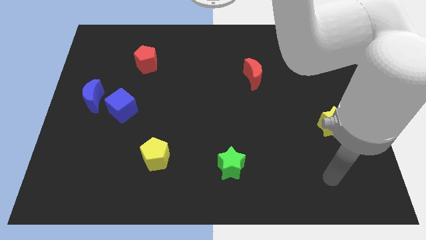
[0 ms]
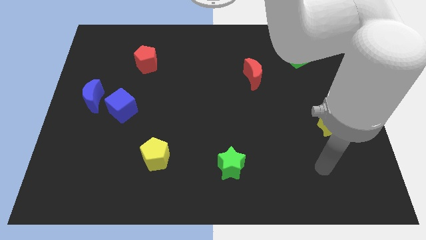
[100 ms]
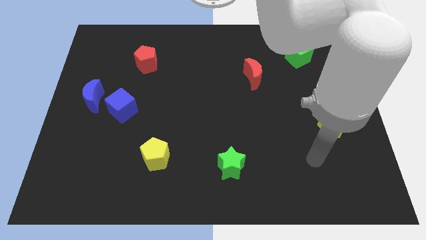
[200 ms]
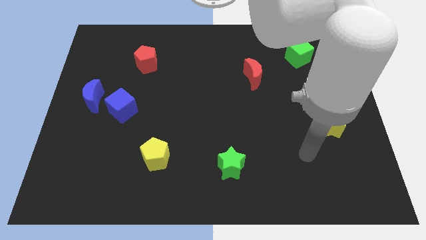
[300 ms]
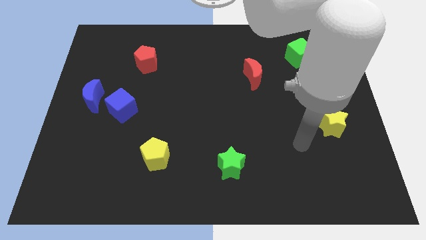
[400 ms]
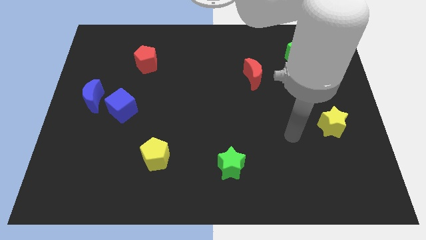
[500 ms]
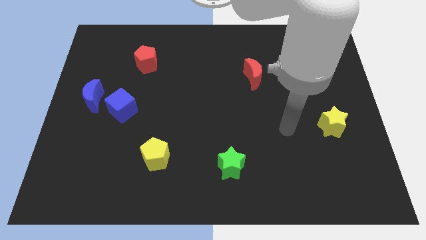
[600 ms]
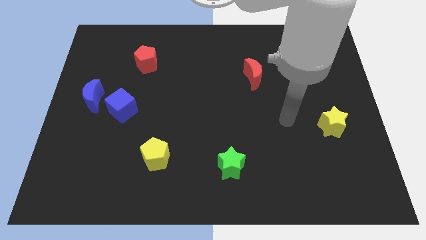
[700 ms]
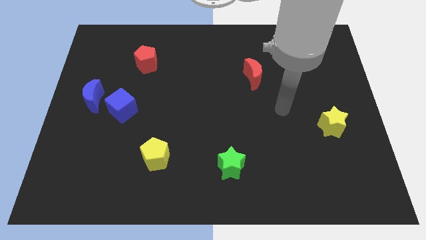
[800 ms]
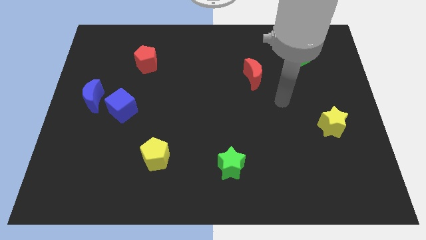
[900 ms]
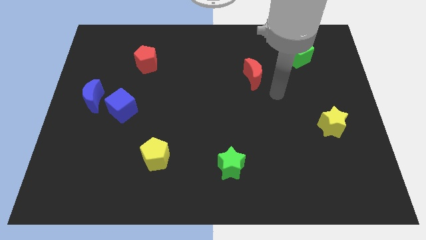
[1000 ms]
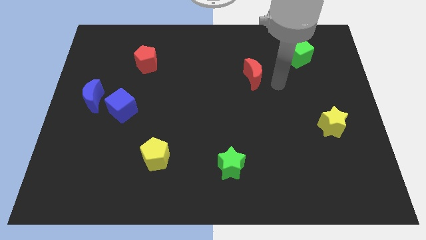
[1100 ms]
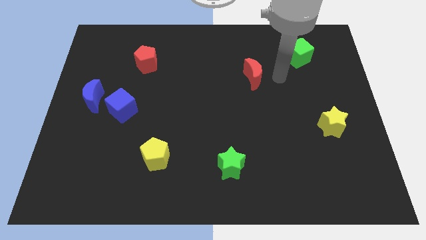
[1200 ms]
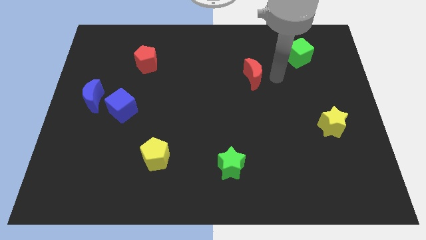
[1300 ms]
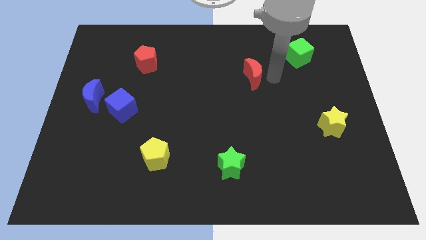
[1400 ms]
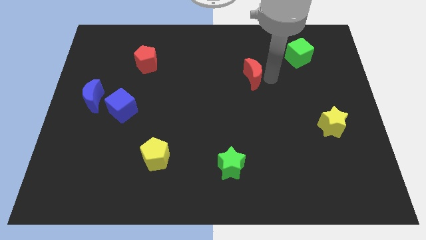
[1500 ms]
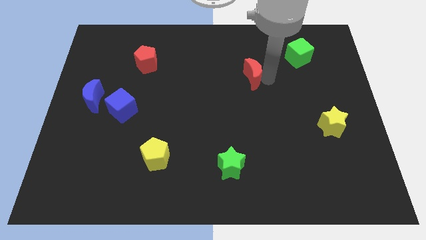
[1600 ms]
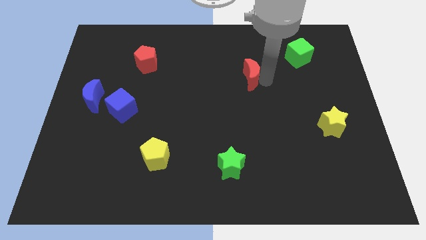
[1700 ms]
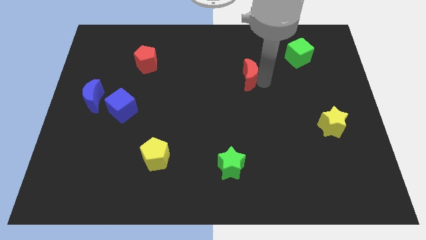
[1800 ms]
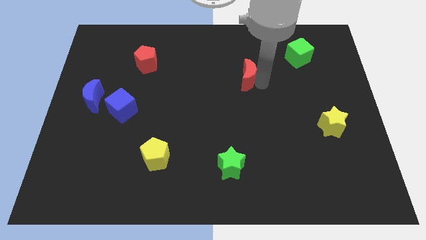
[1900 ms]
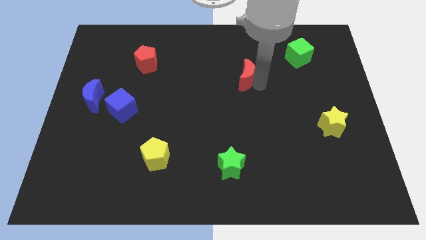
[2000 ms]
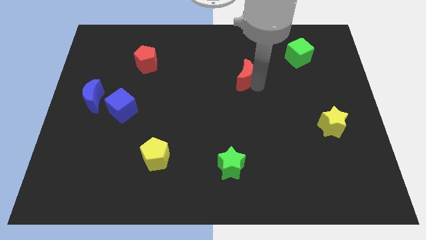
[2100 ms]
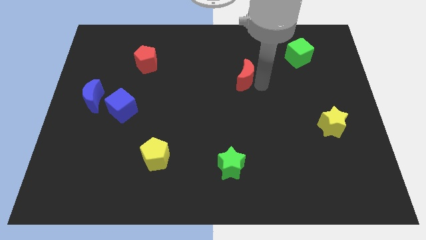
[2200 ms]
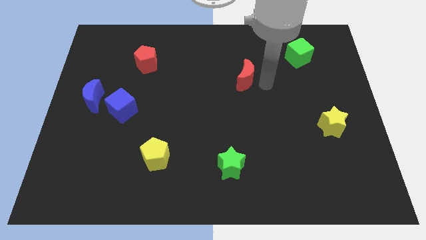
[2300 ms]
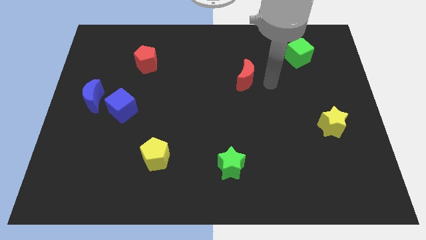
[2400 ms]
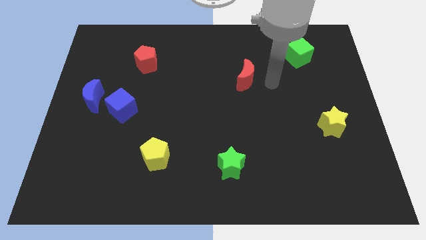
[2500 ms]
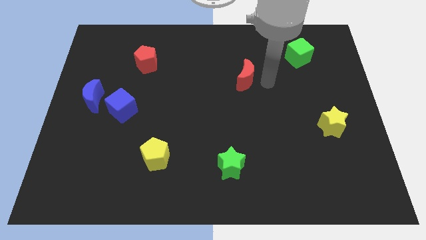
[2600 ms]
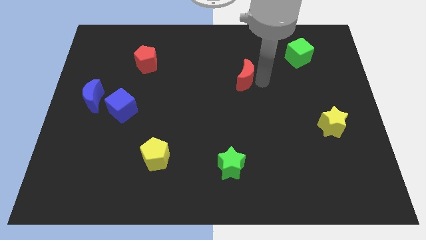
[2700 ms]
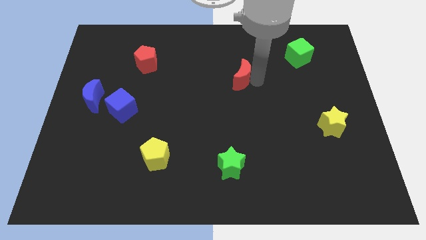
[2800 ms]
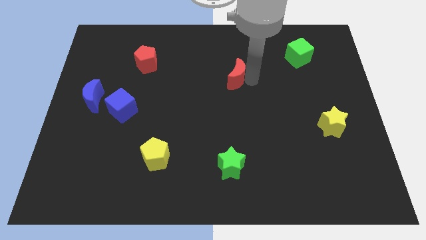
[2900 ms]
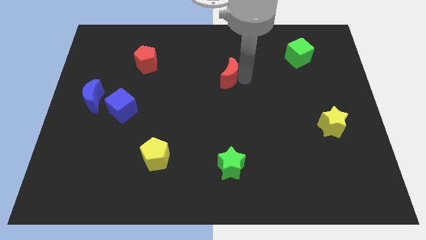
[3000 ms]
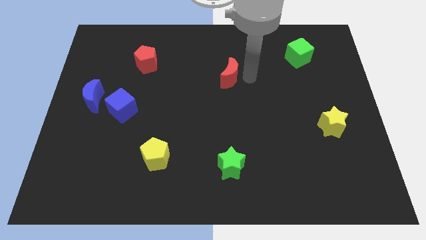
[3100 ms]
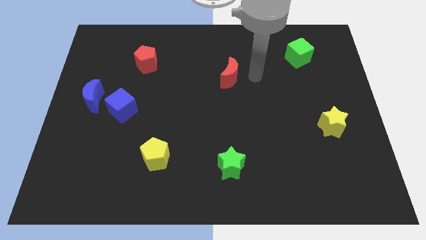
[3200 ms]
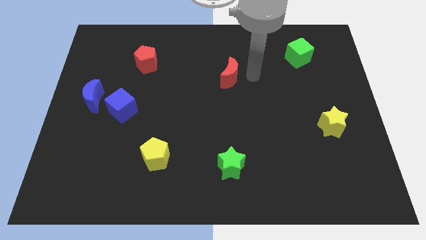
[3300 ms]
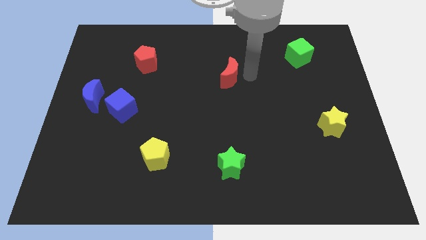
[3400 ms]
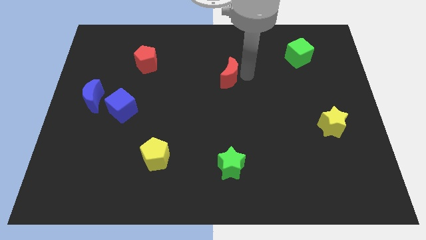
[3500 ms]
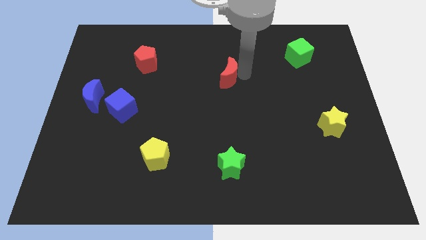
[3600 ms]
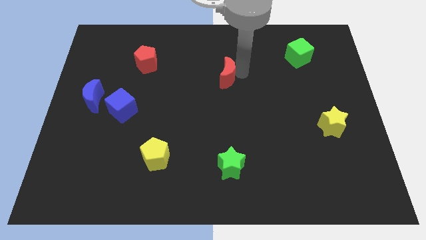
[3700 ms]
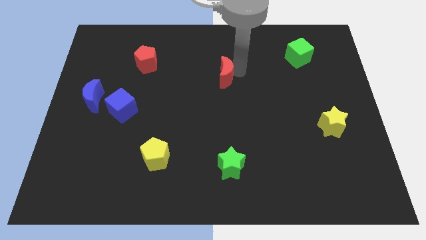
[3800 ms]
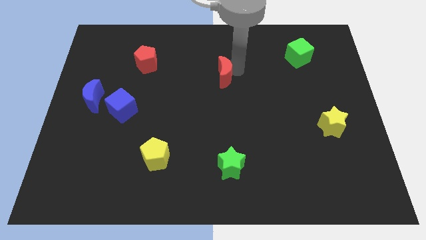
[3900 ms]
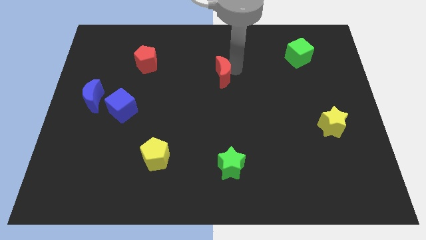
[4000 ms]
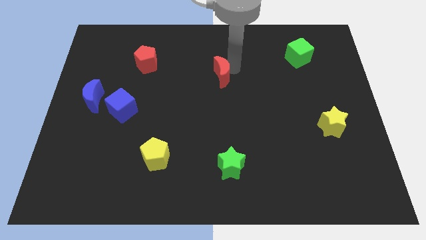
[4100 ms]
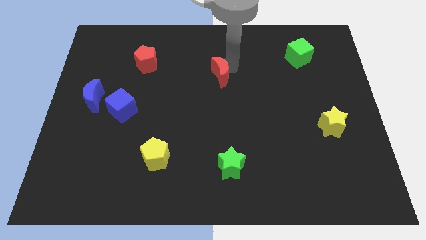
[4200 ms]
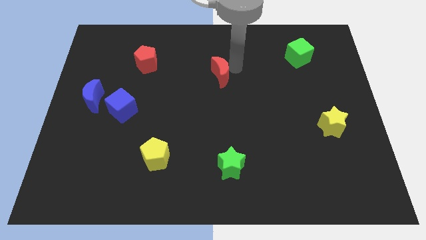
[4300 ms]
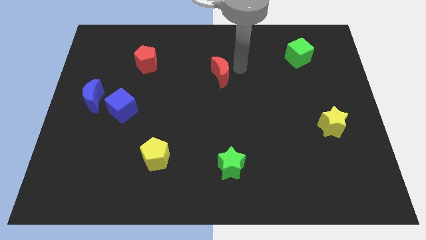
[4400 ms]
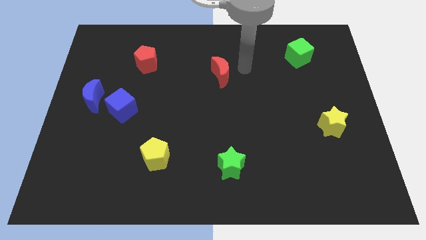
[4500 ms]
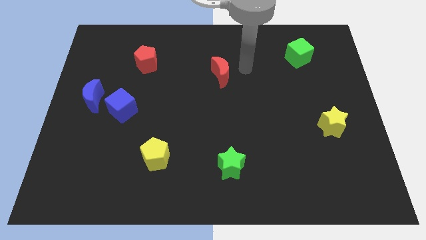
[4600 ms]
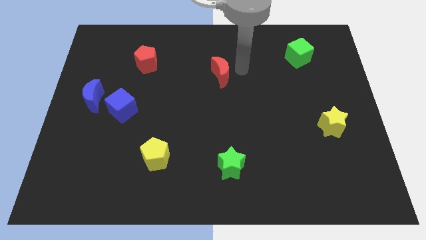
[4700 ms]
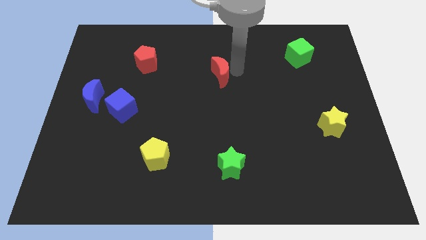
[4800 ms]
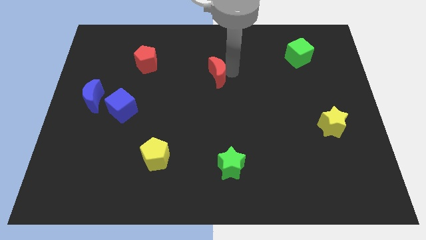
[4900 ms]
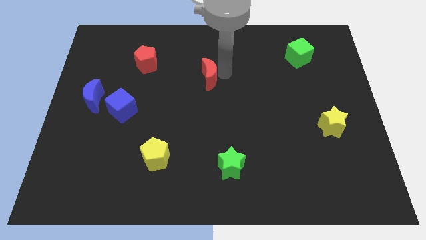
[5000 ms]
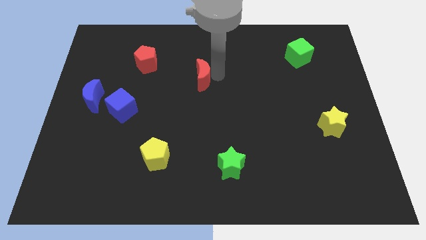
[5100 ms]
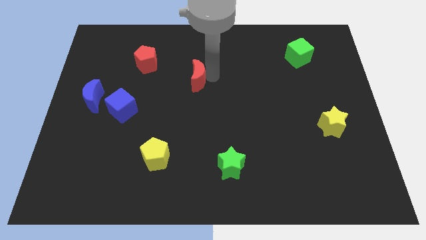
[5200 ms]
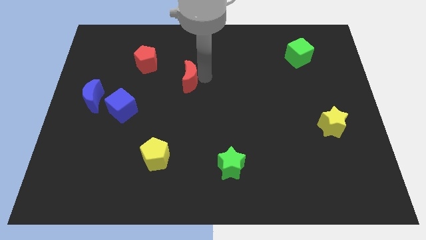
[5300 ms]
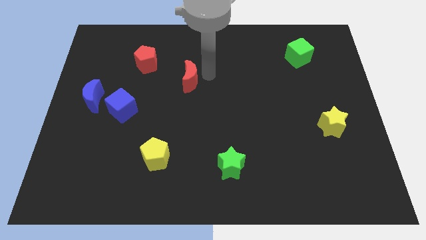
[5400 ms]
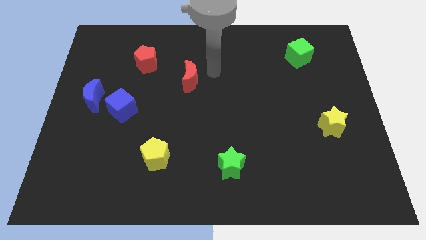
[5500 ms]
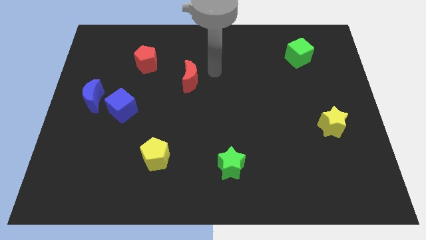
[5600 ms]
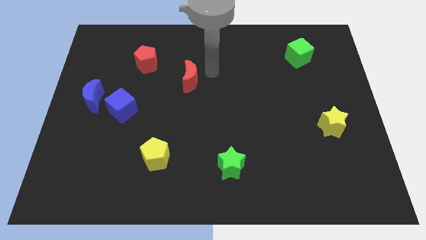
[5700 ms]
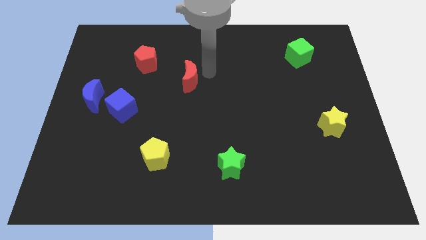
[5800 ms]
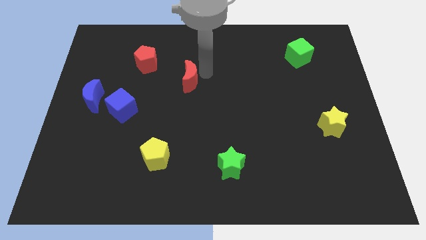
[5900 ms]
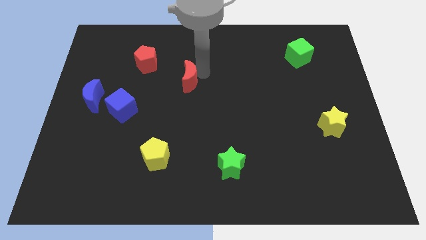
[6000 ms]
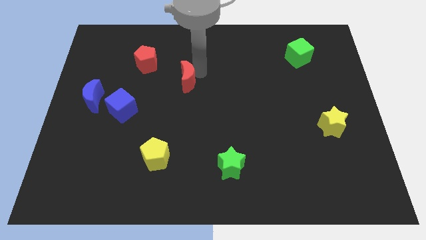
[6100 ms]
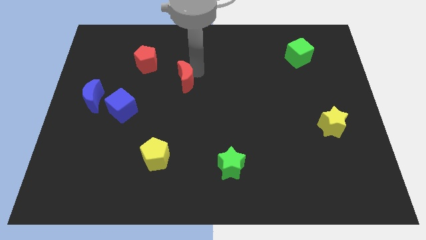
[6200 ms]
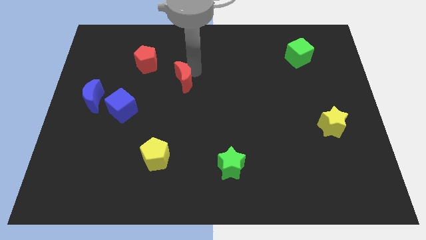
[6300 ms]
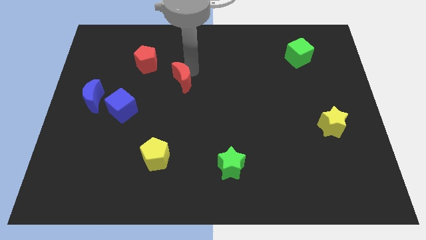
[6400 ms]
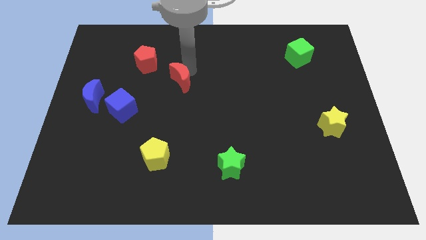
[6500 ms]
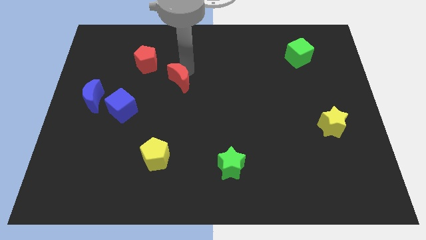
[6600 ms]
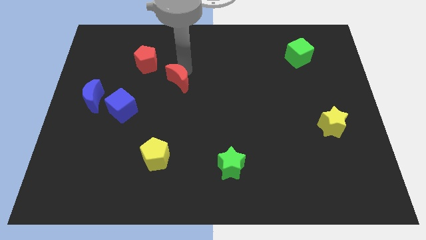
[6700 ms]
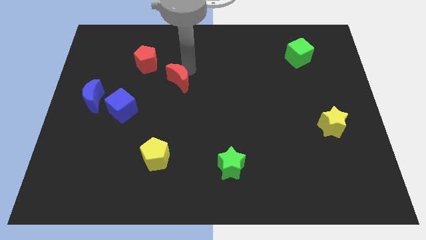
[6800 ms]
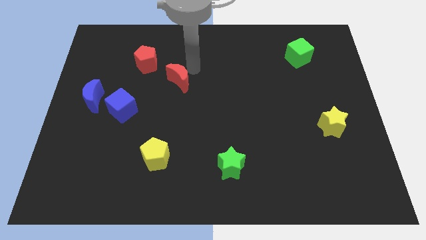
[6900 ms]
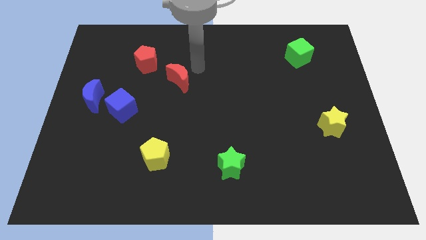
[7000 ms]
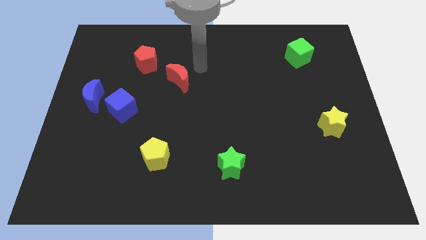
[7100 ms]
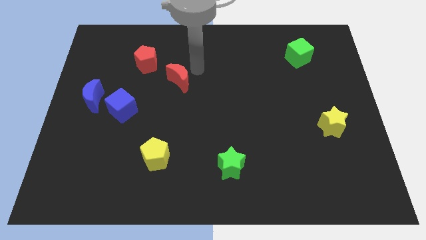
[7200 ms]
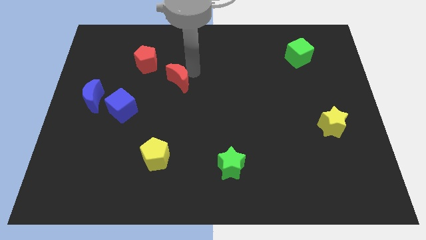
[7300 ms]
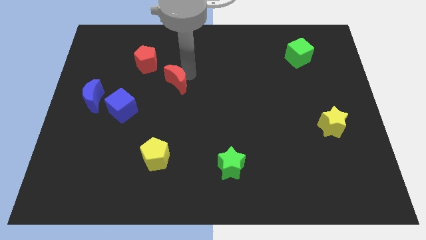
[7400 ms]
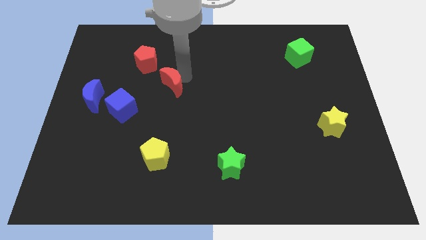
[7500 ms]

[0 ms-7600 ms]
slide the red moon to the left

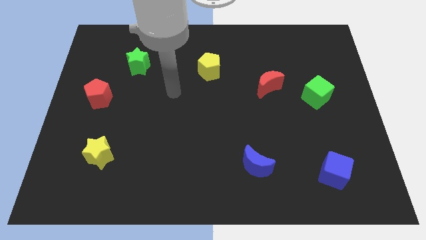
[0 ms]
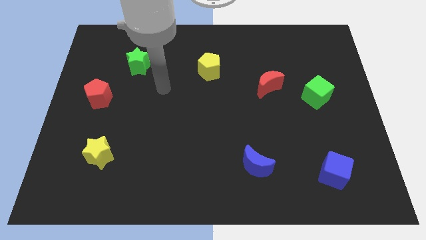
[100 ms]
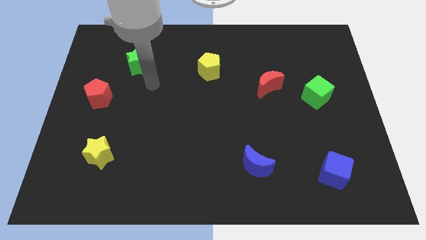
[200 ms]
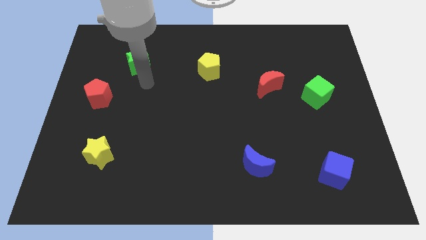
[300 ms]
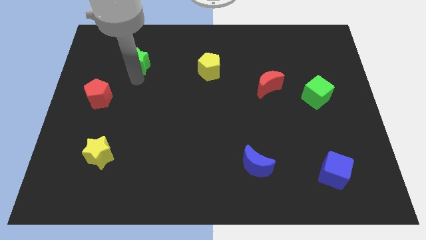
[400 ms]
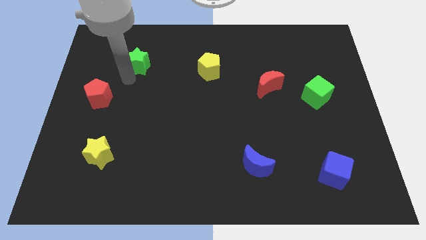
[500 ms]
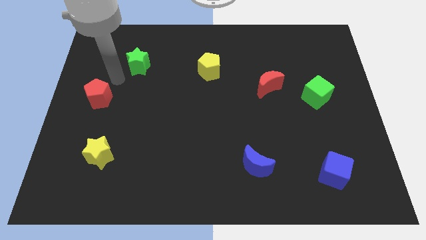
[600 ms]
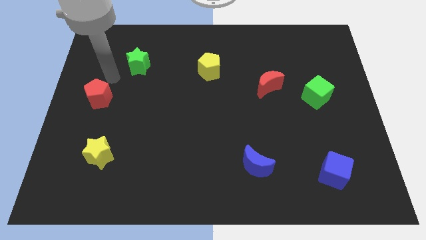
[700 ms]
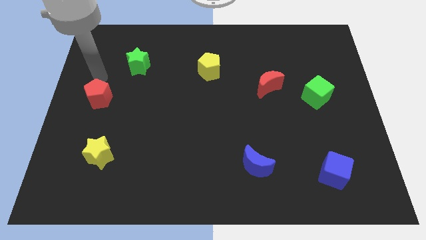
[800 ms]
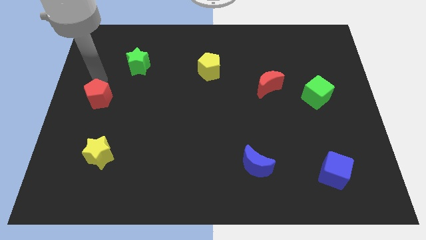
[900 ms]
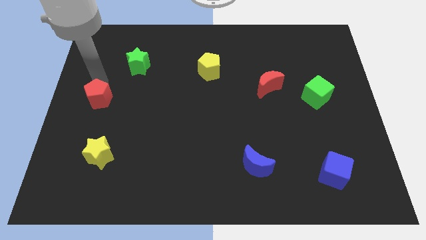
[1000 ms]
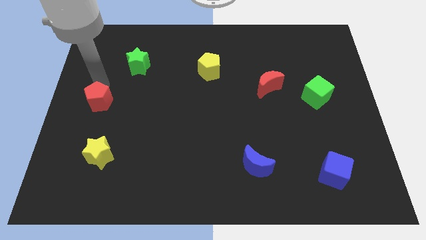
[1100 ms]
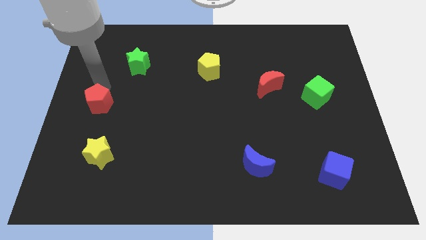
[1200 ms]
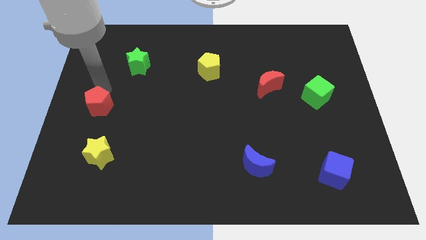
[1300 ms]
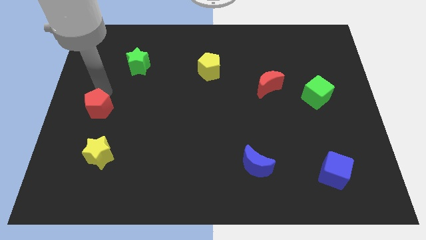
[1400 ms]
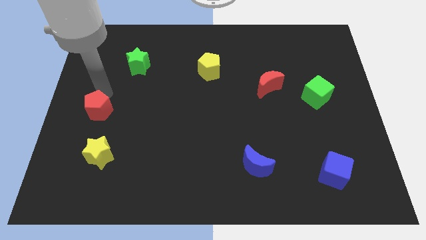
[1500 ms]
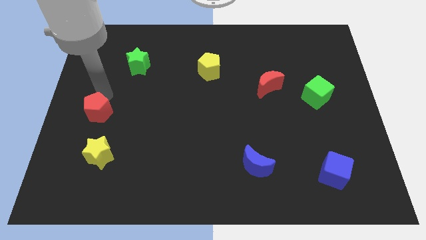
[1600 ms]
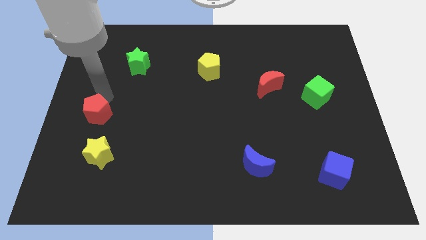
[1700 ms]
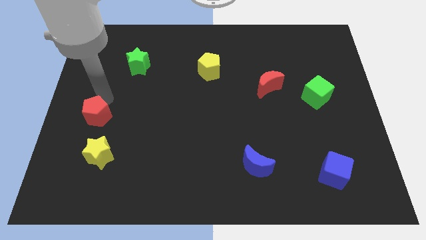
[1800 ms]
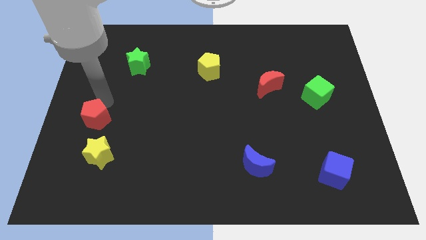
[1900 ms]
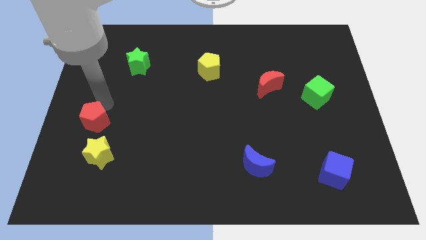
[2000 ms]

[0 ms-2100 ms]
slide the red pentagon a bit down
